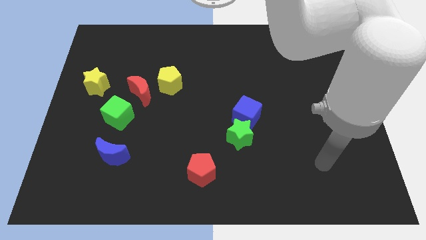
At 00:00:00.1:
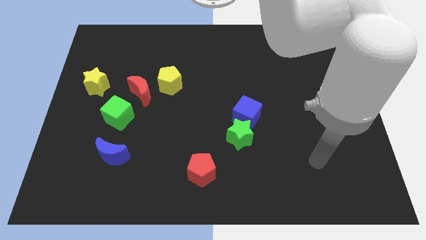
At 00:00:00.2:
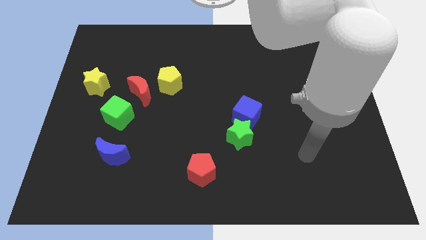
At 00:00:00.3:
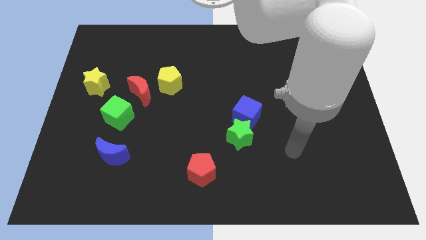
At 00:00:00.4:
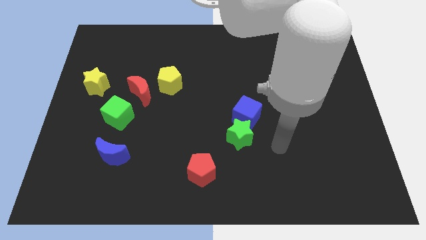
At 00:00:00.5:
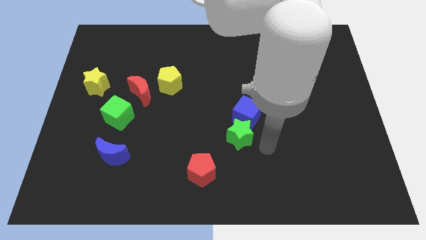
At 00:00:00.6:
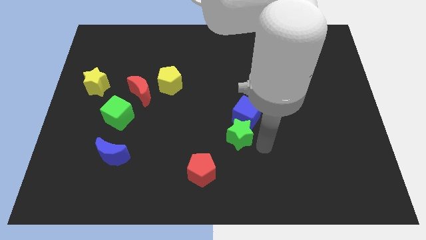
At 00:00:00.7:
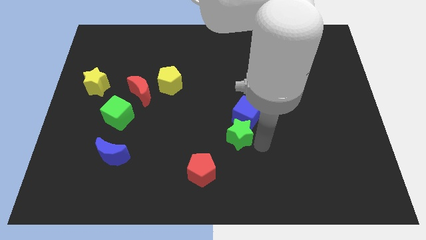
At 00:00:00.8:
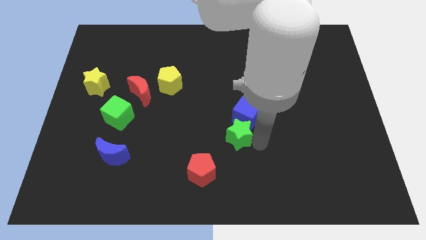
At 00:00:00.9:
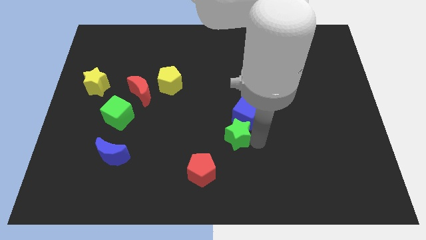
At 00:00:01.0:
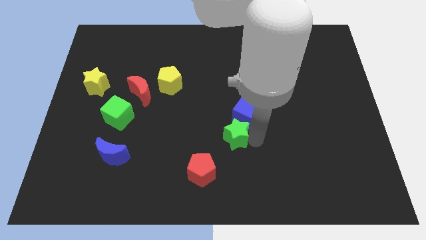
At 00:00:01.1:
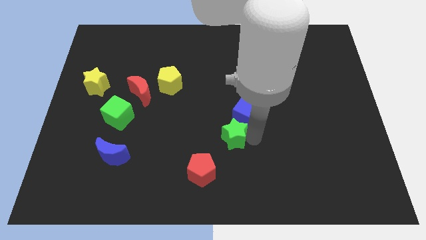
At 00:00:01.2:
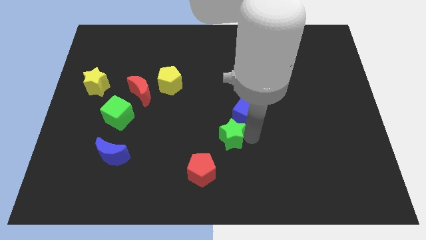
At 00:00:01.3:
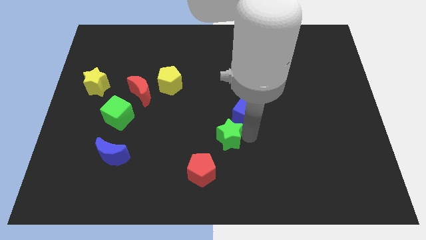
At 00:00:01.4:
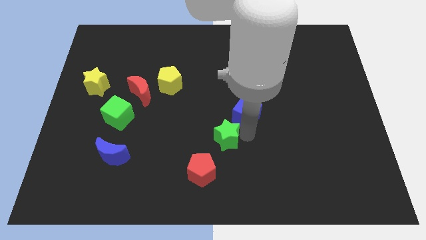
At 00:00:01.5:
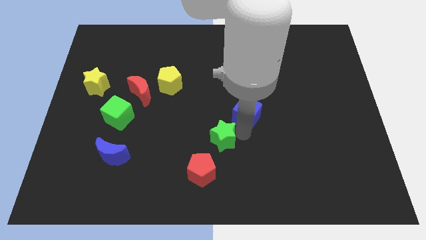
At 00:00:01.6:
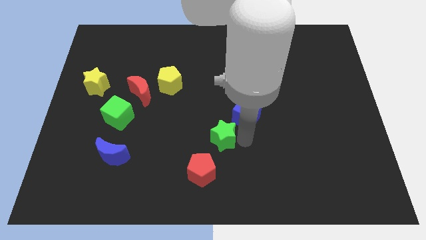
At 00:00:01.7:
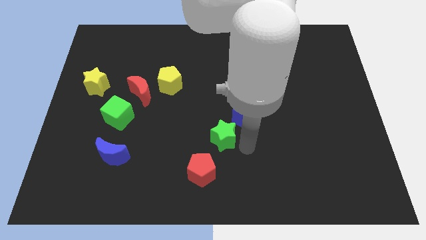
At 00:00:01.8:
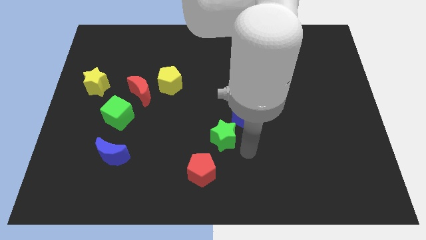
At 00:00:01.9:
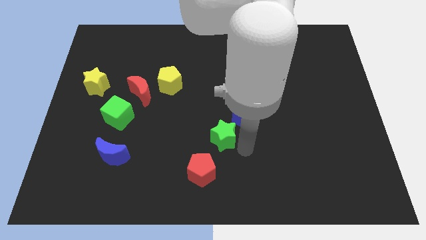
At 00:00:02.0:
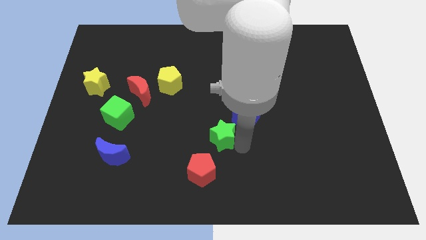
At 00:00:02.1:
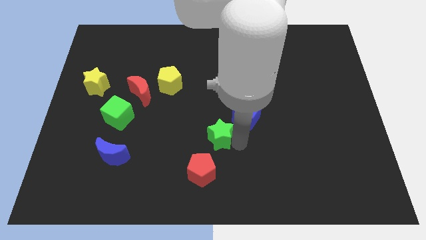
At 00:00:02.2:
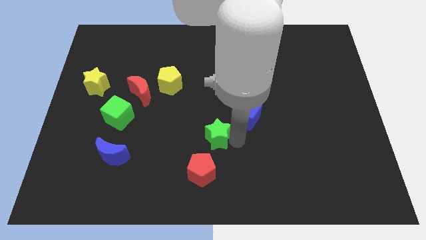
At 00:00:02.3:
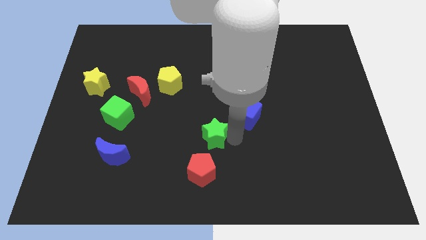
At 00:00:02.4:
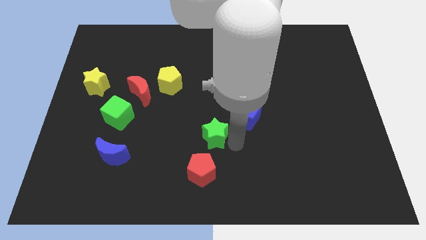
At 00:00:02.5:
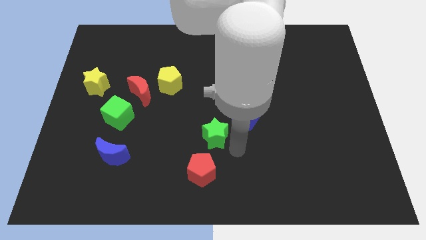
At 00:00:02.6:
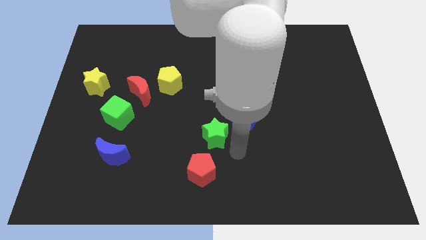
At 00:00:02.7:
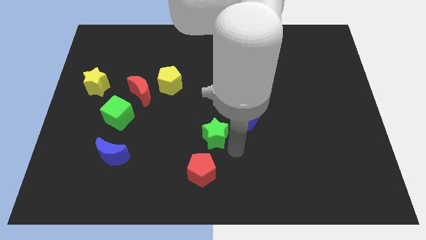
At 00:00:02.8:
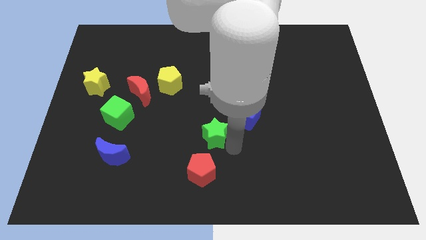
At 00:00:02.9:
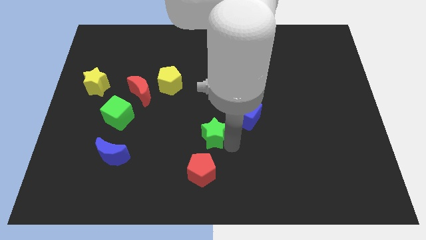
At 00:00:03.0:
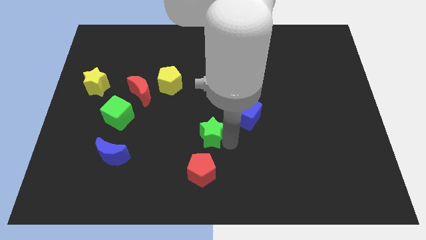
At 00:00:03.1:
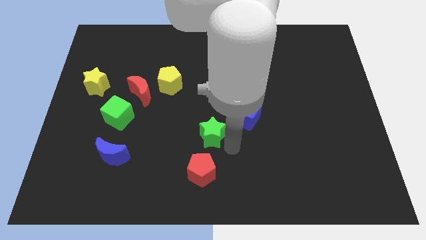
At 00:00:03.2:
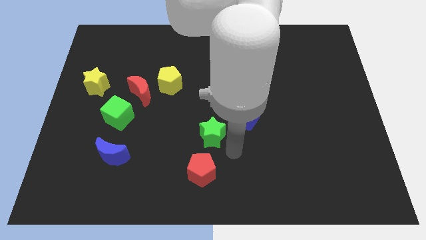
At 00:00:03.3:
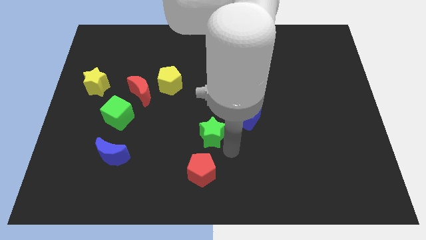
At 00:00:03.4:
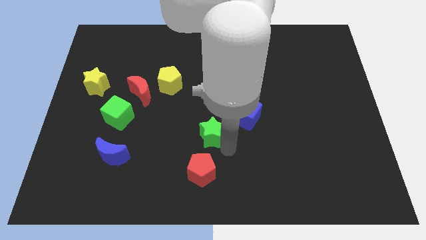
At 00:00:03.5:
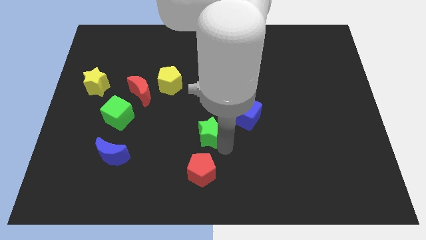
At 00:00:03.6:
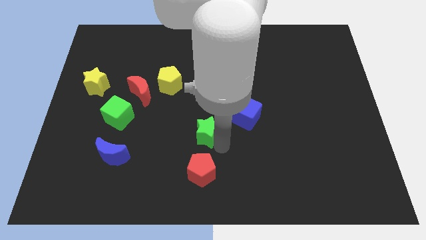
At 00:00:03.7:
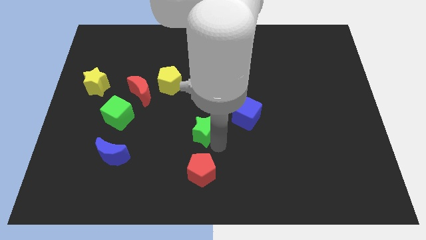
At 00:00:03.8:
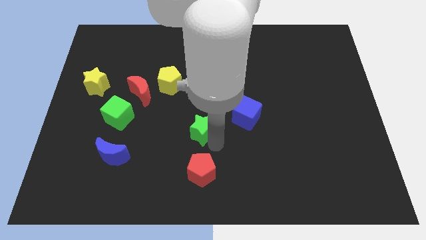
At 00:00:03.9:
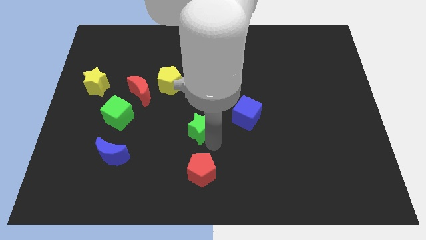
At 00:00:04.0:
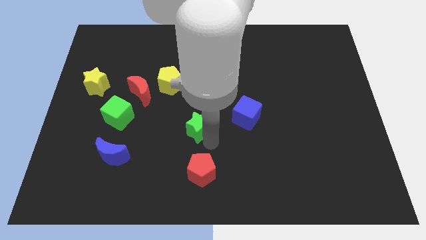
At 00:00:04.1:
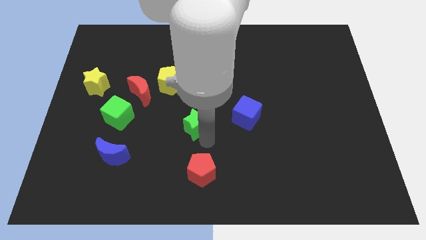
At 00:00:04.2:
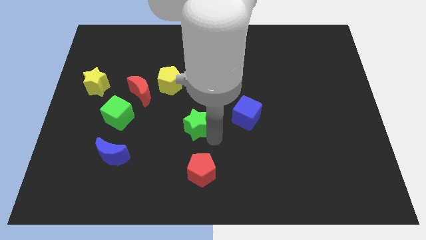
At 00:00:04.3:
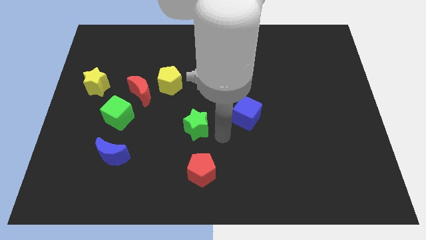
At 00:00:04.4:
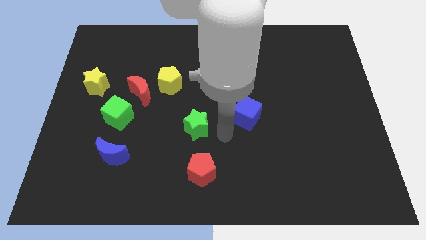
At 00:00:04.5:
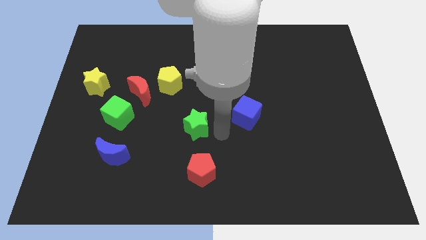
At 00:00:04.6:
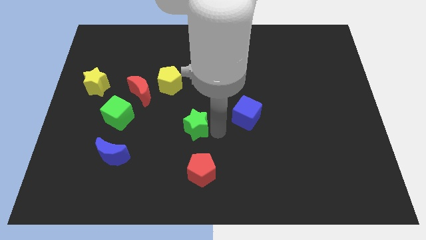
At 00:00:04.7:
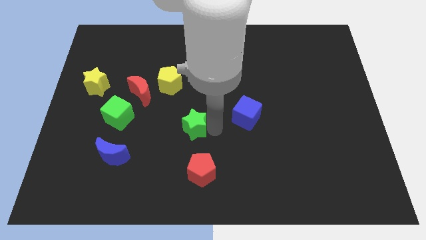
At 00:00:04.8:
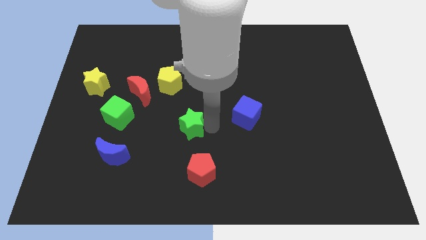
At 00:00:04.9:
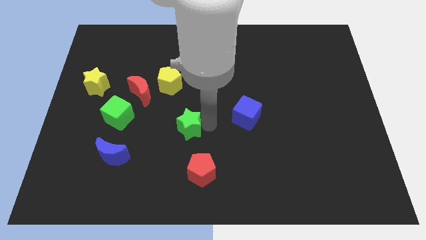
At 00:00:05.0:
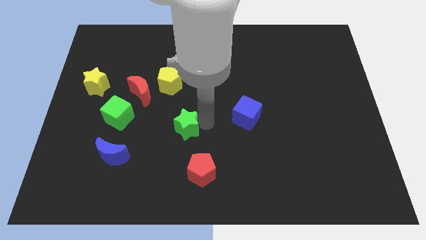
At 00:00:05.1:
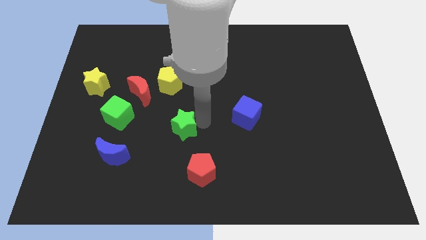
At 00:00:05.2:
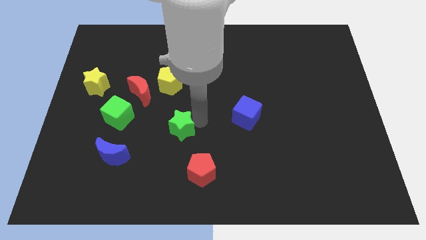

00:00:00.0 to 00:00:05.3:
put the green star right of the green cube

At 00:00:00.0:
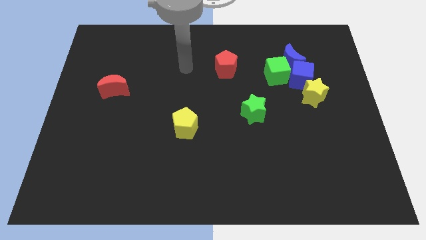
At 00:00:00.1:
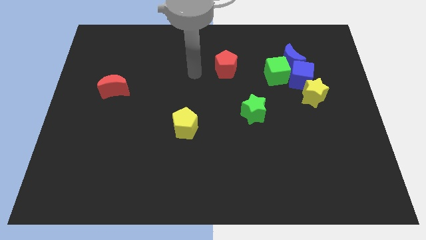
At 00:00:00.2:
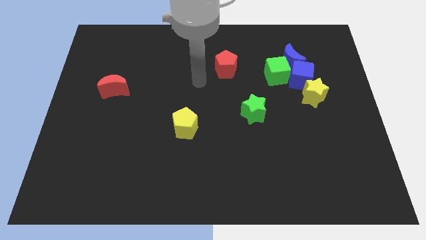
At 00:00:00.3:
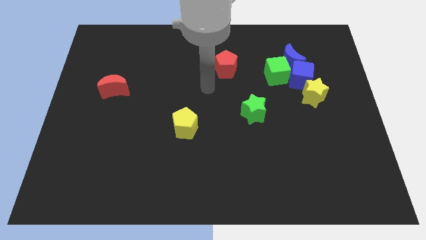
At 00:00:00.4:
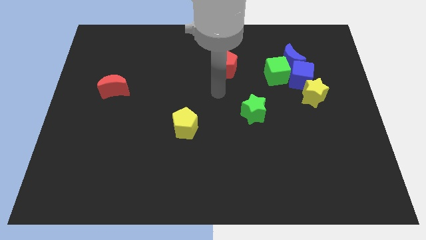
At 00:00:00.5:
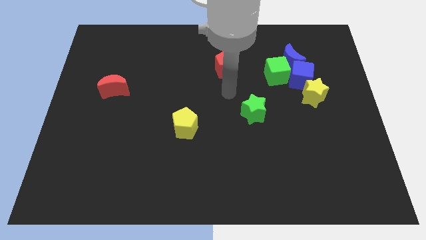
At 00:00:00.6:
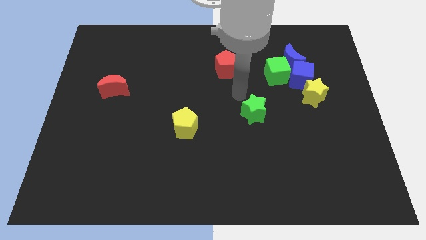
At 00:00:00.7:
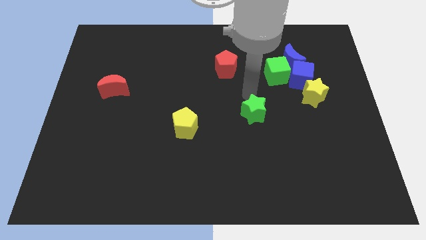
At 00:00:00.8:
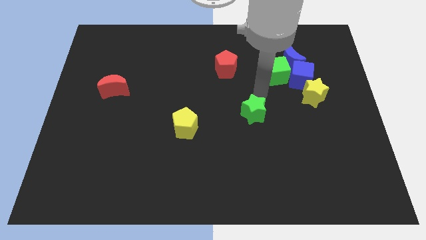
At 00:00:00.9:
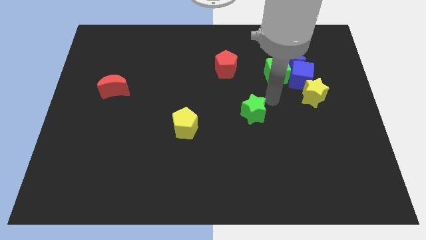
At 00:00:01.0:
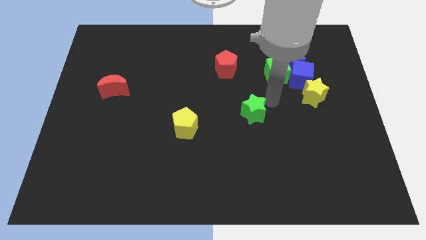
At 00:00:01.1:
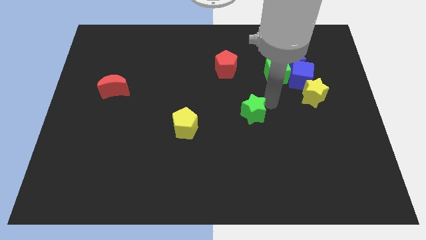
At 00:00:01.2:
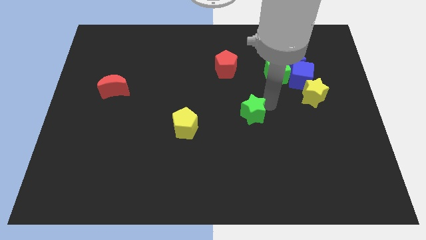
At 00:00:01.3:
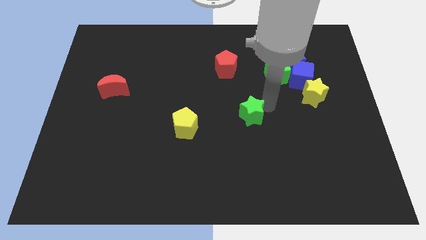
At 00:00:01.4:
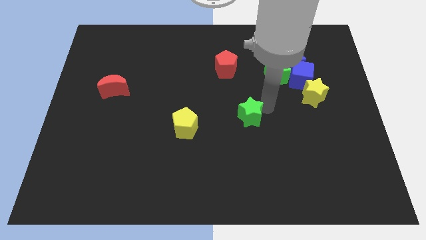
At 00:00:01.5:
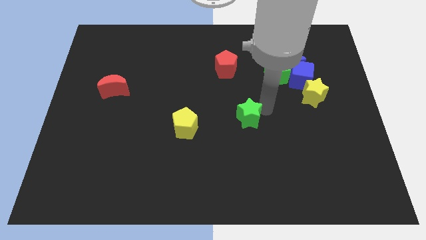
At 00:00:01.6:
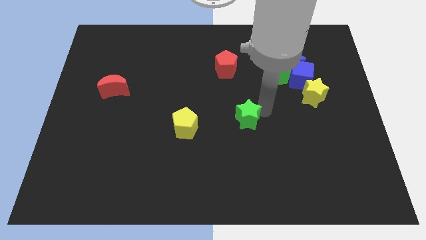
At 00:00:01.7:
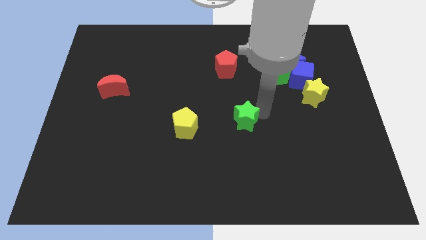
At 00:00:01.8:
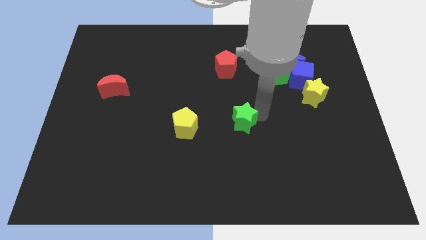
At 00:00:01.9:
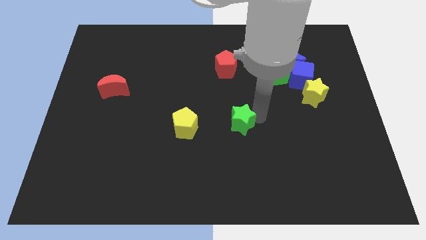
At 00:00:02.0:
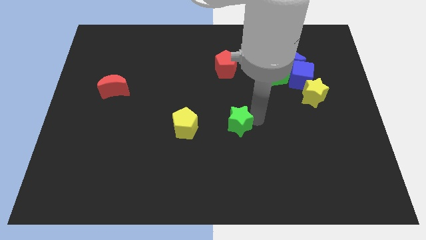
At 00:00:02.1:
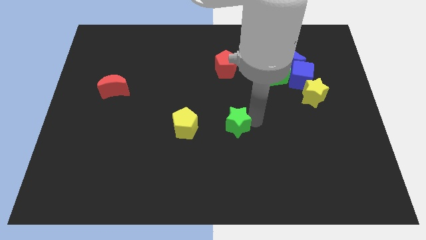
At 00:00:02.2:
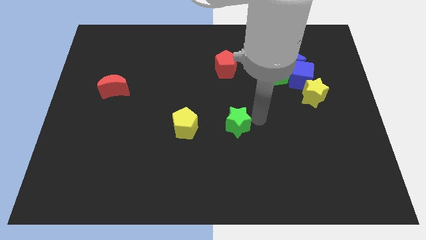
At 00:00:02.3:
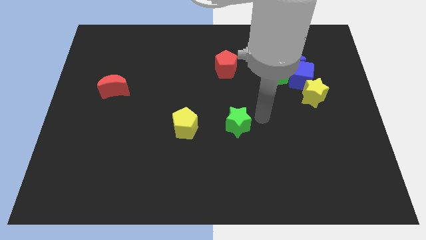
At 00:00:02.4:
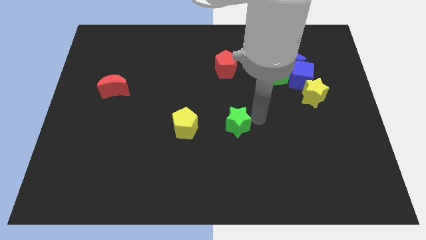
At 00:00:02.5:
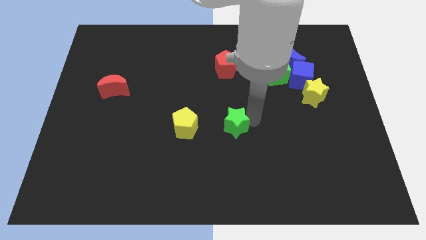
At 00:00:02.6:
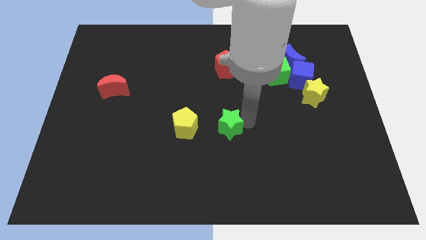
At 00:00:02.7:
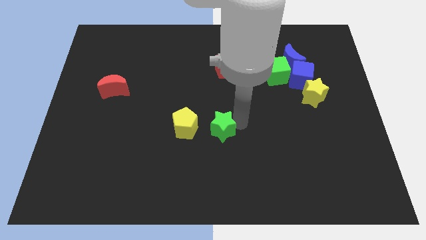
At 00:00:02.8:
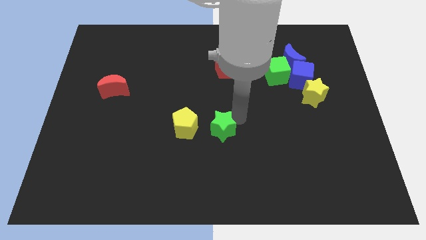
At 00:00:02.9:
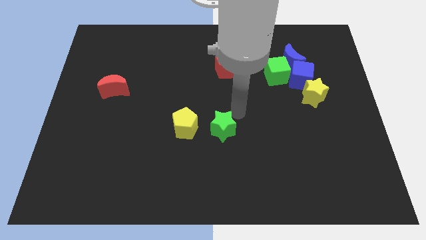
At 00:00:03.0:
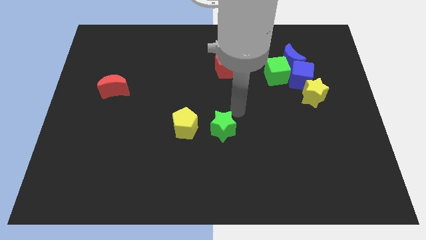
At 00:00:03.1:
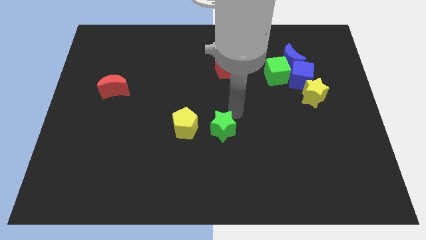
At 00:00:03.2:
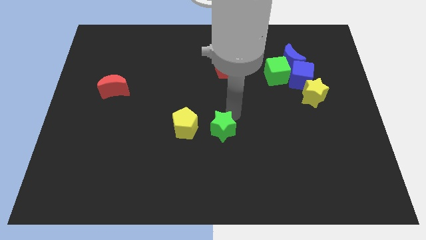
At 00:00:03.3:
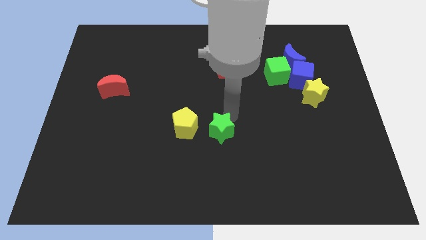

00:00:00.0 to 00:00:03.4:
push the green star to the bottom right side of the yellow pentagon
